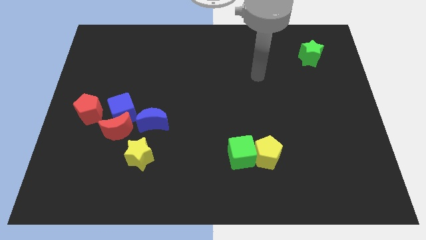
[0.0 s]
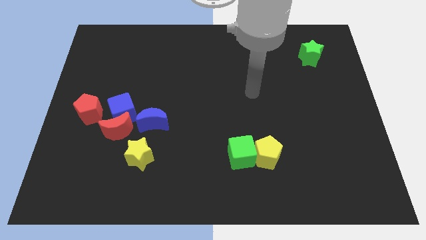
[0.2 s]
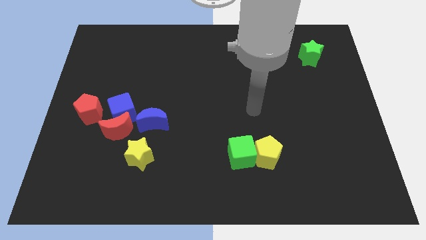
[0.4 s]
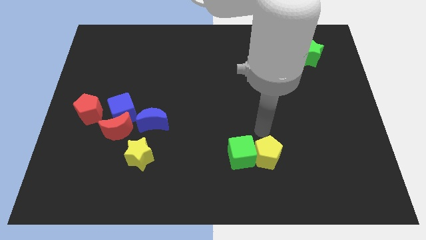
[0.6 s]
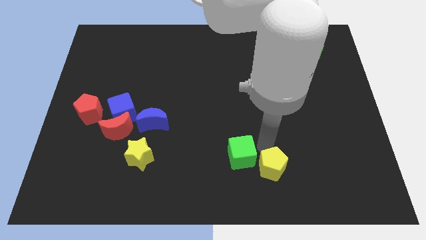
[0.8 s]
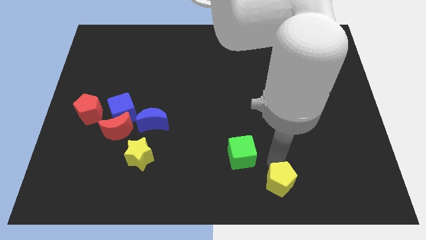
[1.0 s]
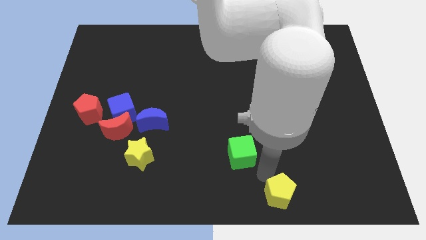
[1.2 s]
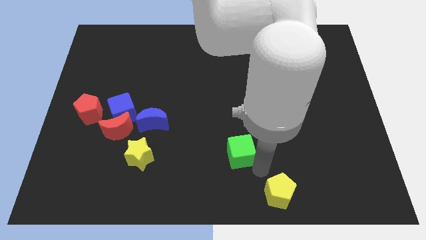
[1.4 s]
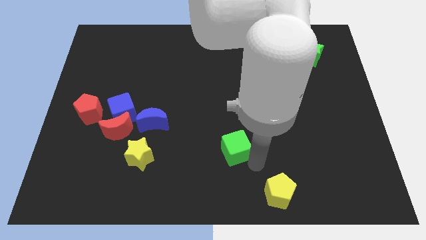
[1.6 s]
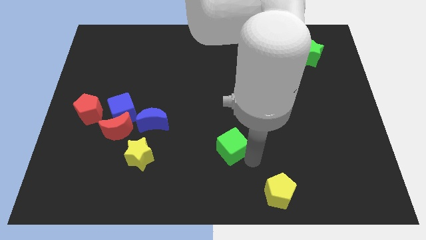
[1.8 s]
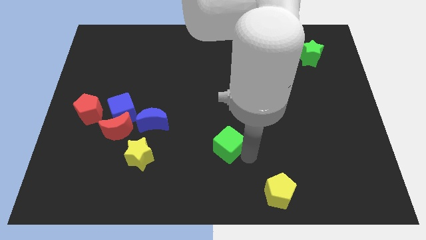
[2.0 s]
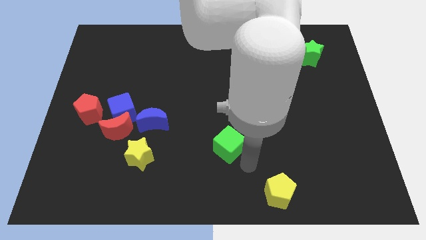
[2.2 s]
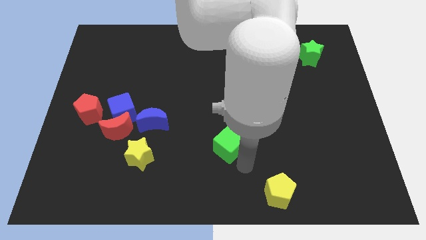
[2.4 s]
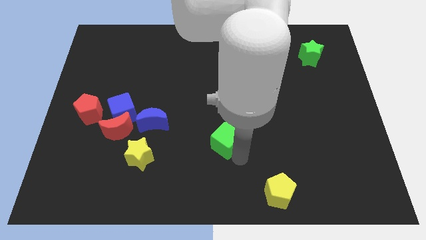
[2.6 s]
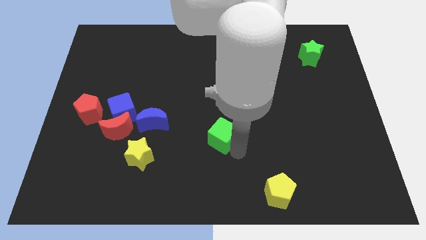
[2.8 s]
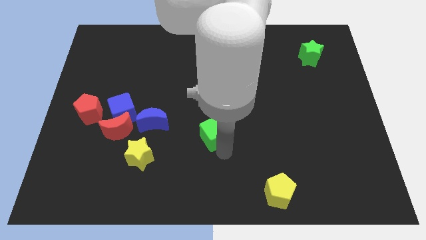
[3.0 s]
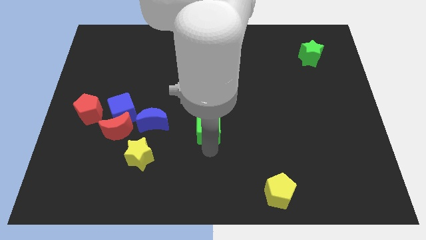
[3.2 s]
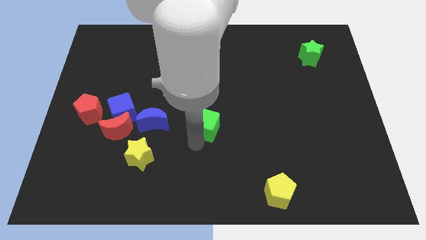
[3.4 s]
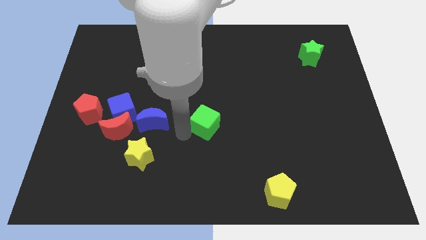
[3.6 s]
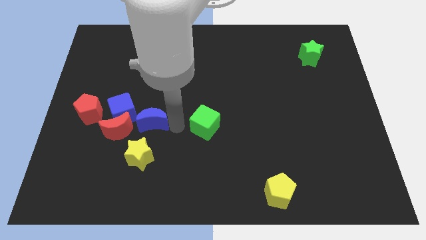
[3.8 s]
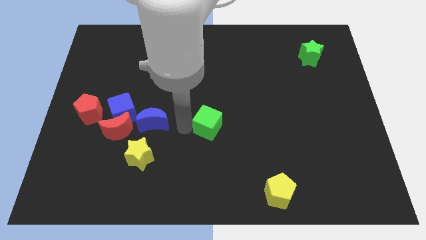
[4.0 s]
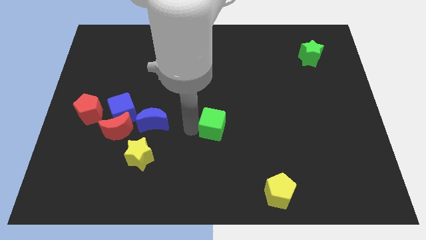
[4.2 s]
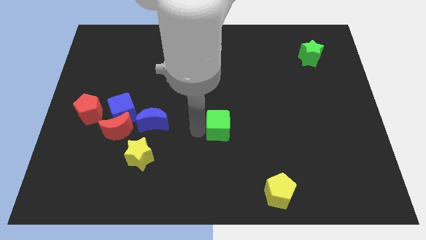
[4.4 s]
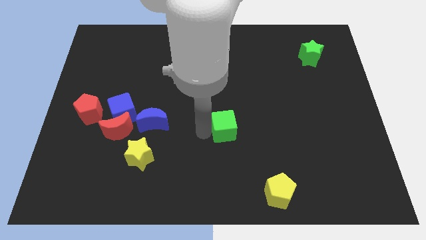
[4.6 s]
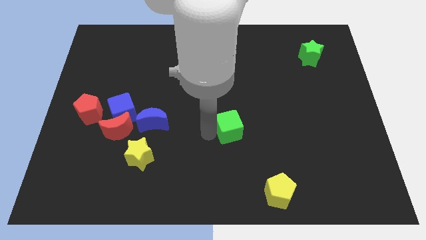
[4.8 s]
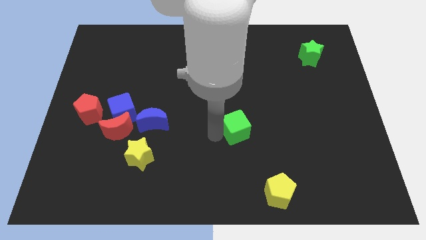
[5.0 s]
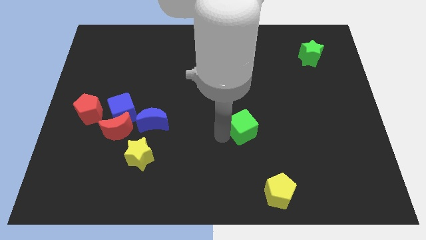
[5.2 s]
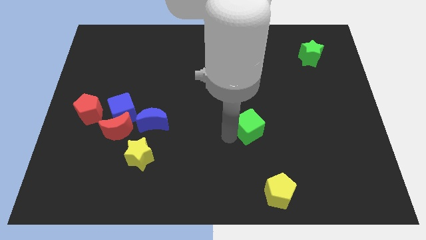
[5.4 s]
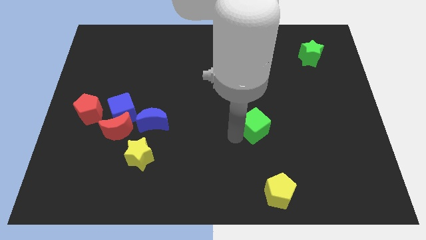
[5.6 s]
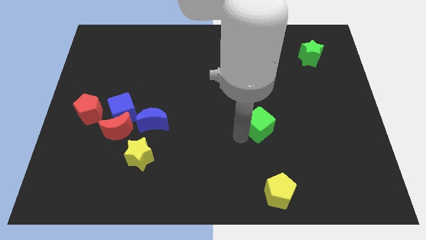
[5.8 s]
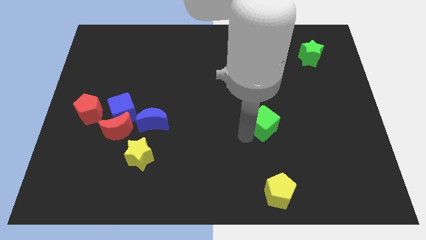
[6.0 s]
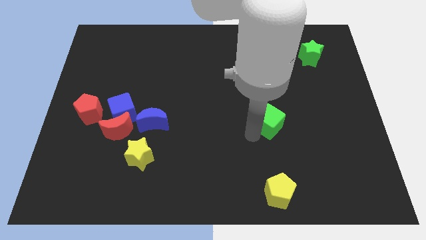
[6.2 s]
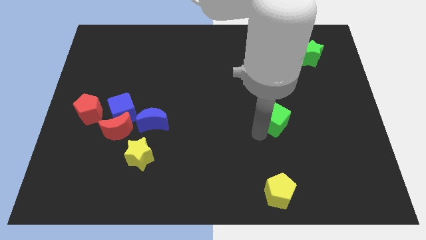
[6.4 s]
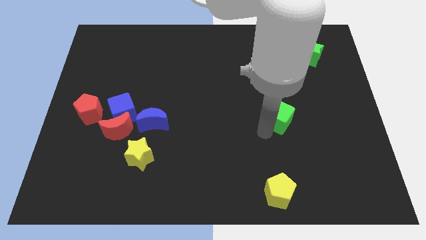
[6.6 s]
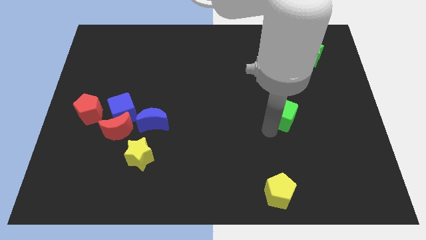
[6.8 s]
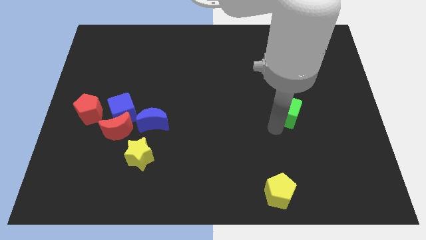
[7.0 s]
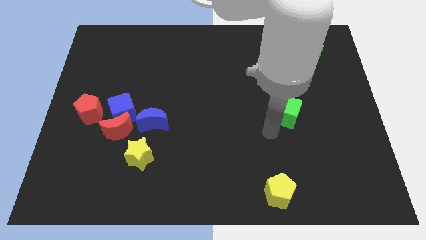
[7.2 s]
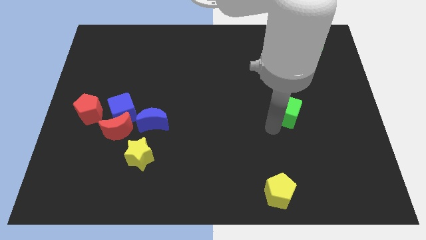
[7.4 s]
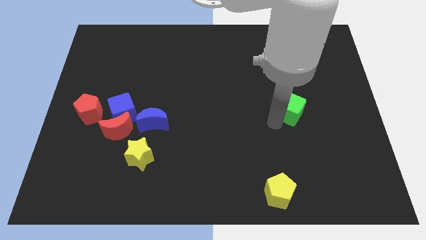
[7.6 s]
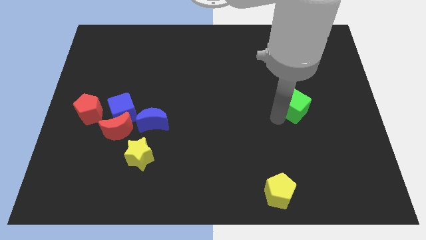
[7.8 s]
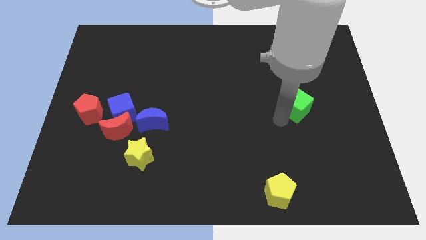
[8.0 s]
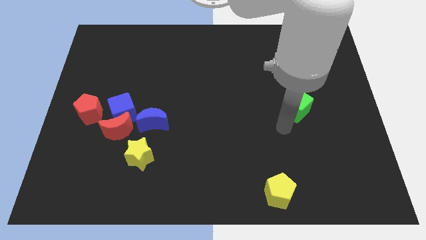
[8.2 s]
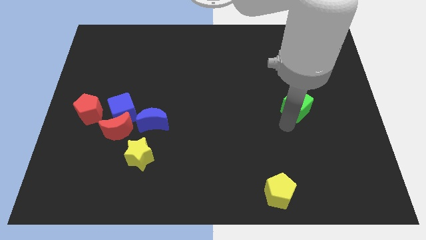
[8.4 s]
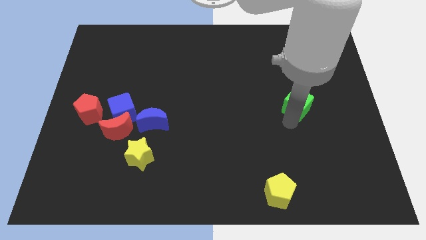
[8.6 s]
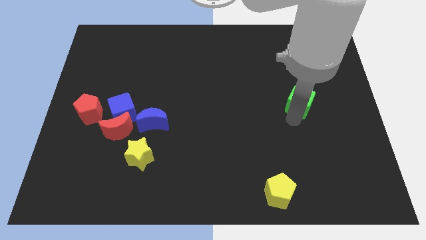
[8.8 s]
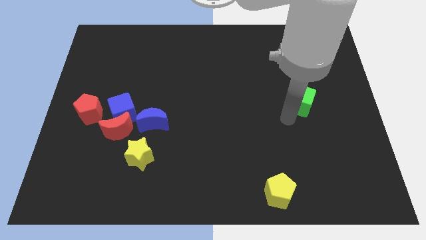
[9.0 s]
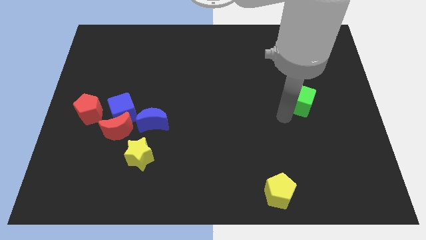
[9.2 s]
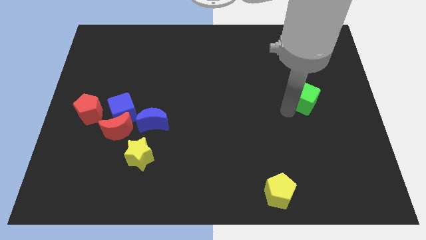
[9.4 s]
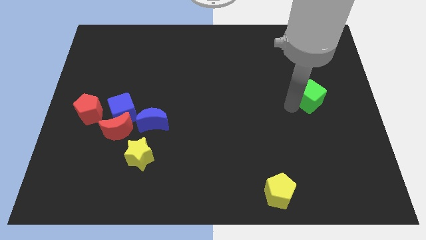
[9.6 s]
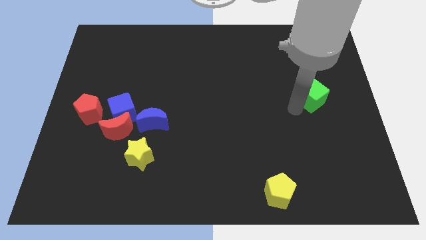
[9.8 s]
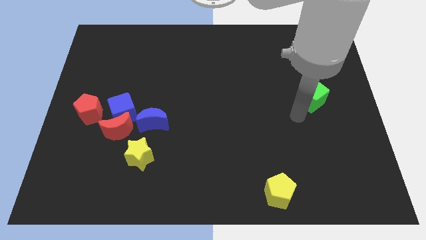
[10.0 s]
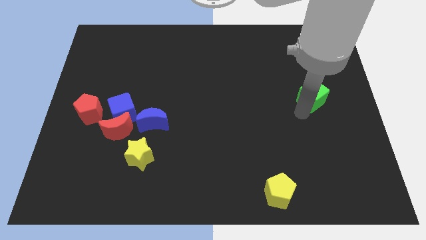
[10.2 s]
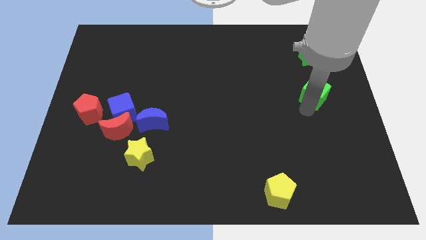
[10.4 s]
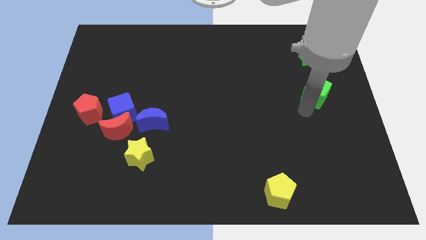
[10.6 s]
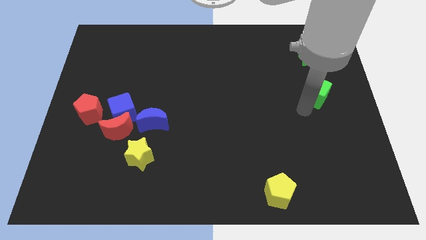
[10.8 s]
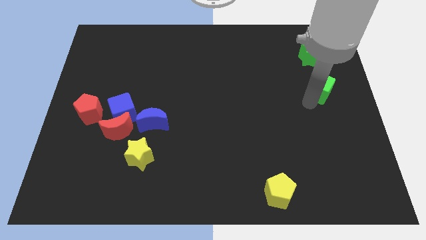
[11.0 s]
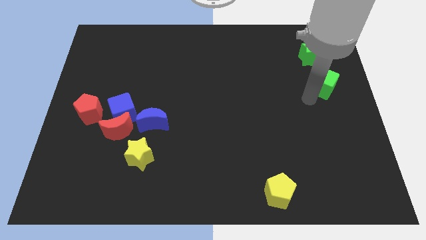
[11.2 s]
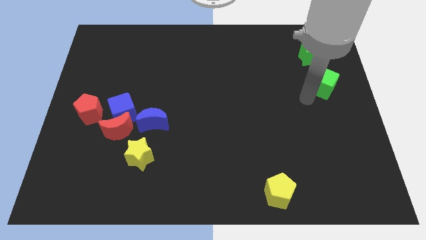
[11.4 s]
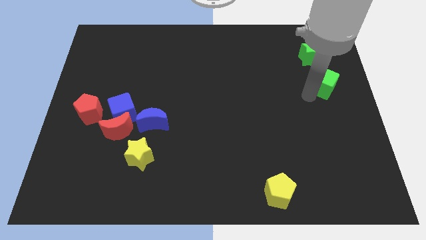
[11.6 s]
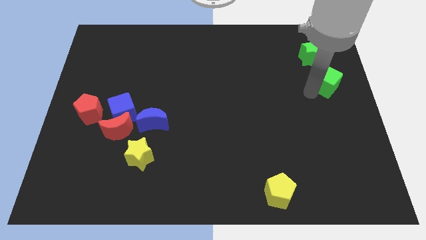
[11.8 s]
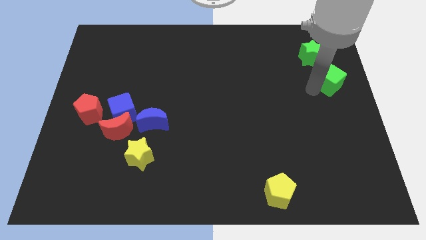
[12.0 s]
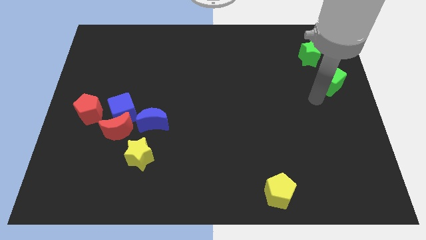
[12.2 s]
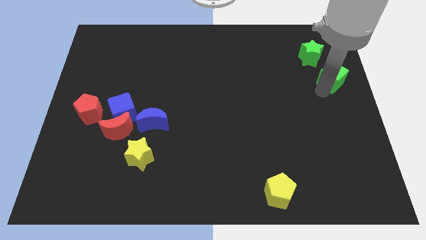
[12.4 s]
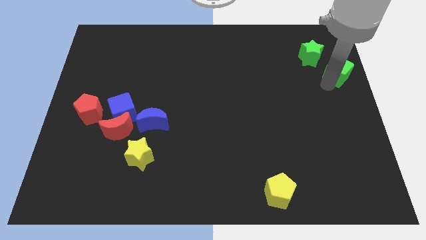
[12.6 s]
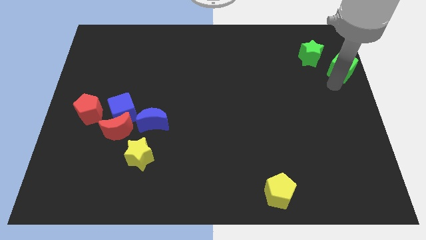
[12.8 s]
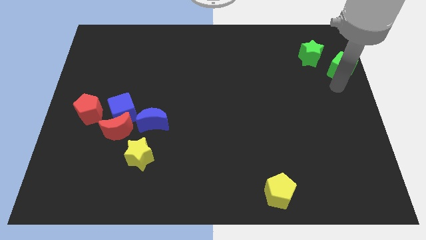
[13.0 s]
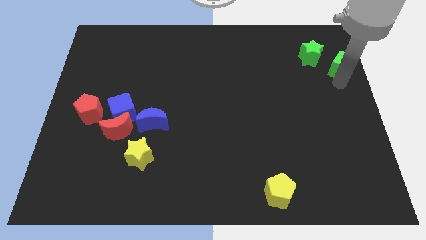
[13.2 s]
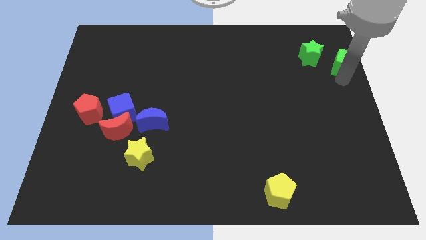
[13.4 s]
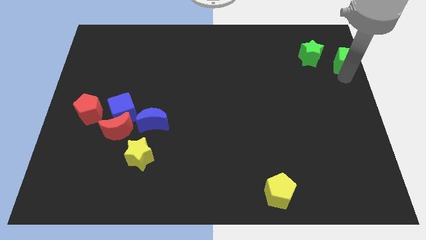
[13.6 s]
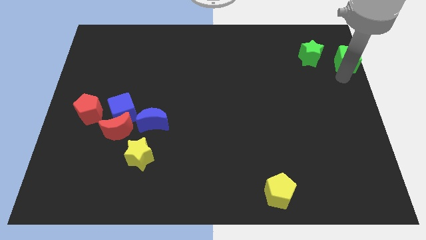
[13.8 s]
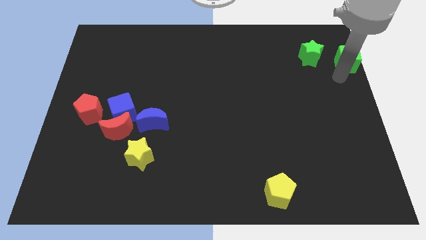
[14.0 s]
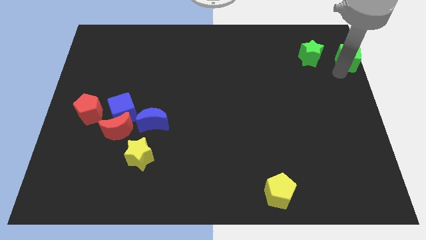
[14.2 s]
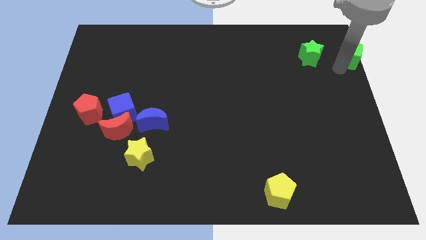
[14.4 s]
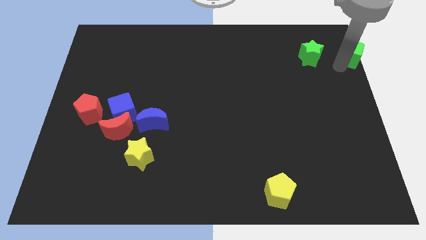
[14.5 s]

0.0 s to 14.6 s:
put the green cube to the upper right corner
